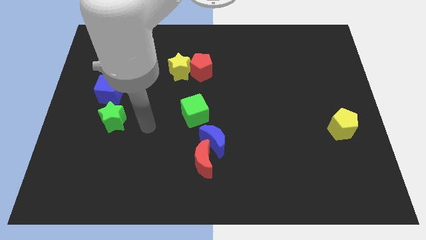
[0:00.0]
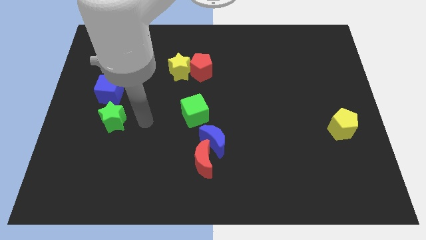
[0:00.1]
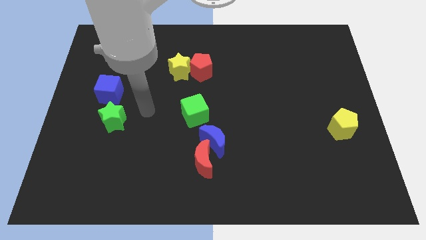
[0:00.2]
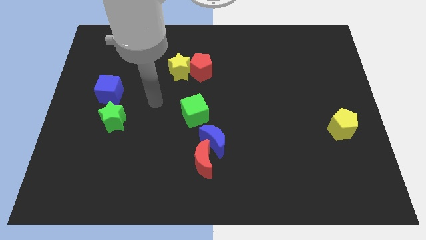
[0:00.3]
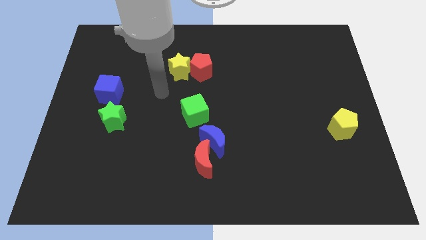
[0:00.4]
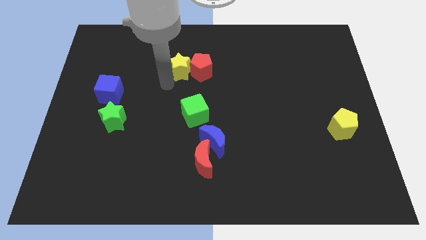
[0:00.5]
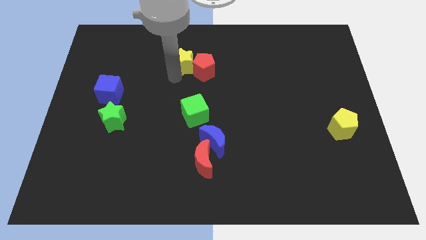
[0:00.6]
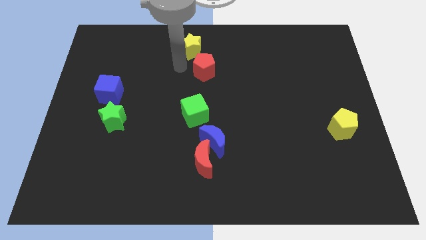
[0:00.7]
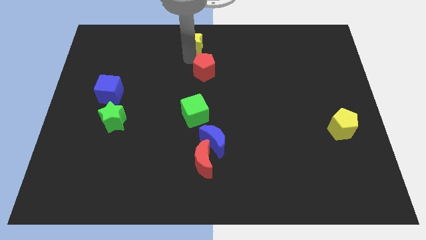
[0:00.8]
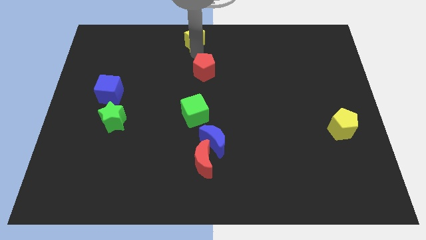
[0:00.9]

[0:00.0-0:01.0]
move the red pentagon away from the yellow star

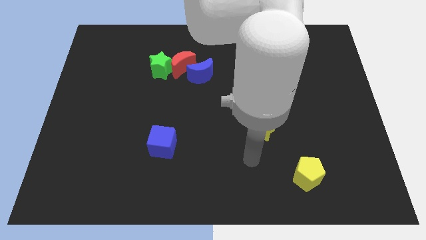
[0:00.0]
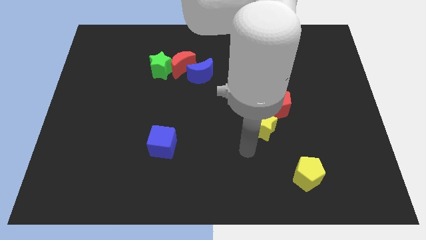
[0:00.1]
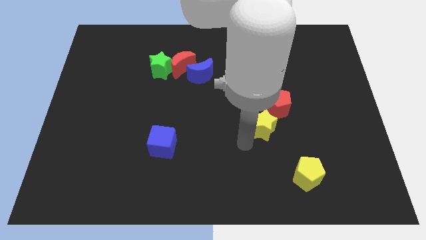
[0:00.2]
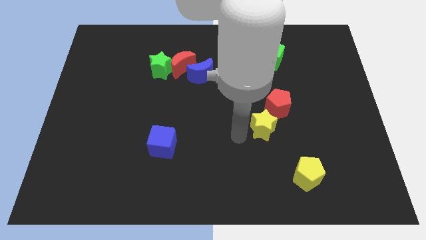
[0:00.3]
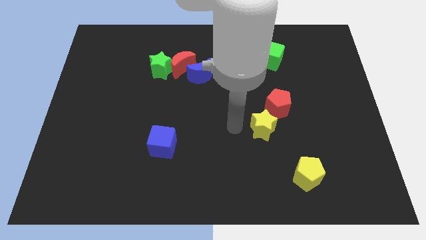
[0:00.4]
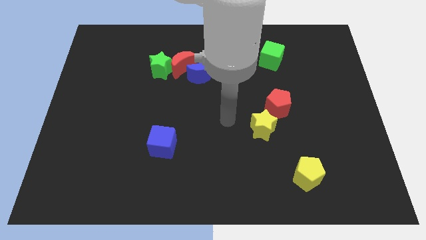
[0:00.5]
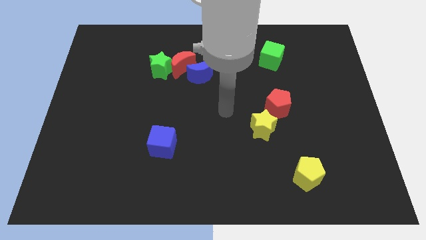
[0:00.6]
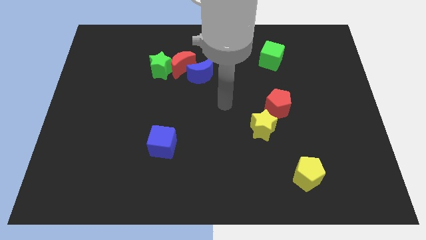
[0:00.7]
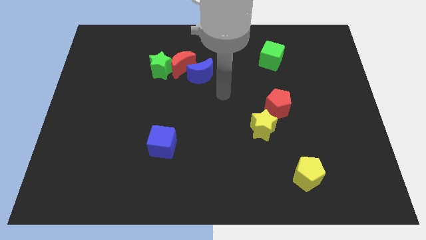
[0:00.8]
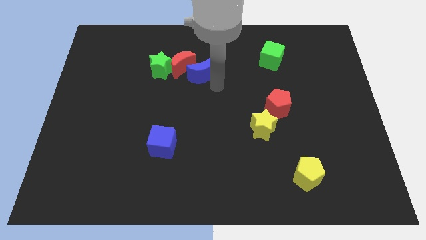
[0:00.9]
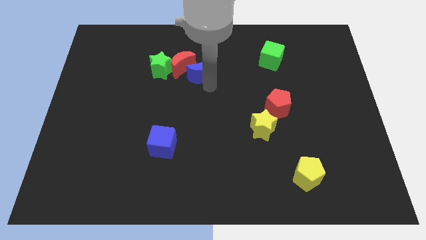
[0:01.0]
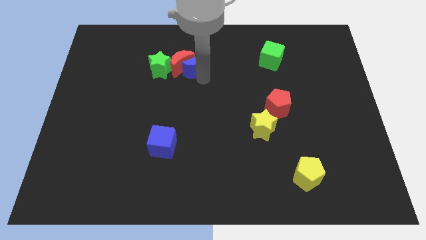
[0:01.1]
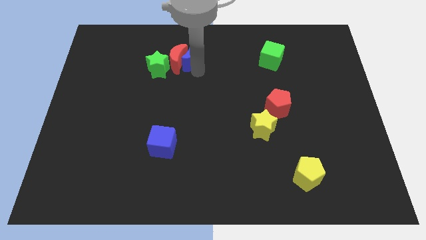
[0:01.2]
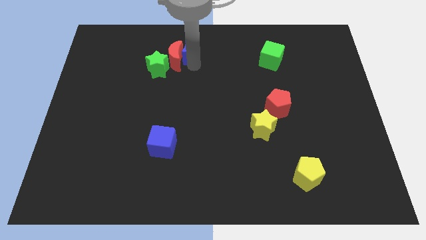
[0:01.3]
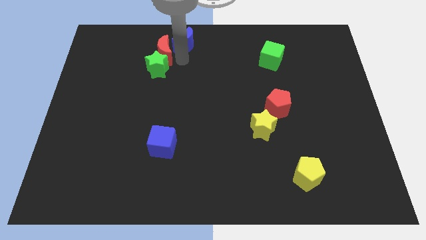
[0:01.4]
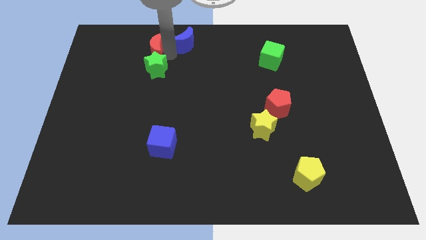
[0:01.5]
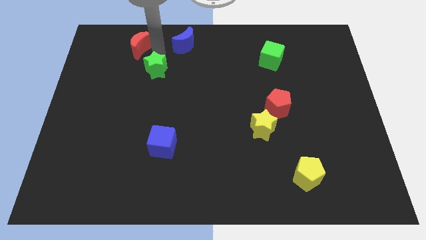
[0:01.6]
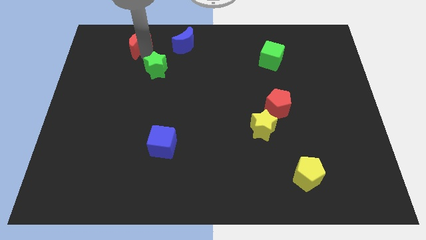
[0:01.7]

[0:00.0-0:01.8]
pull the green star apart from the red moon

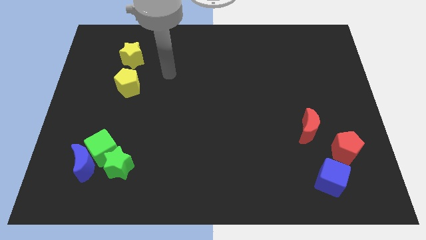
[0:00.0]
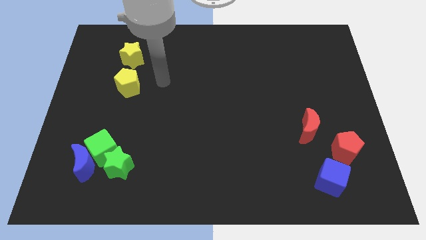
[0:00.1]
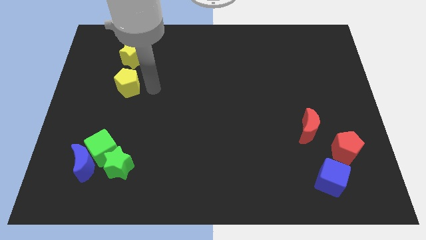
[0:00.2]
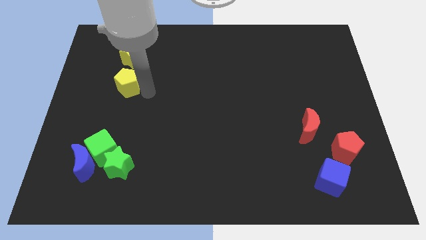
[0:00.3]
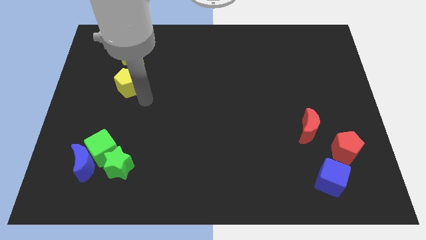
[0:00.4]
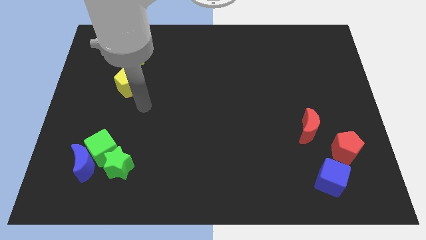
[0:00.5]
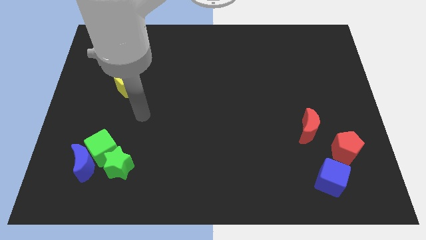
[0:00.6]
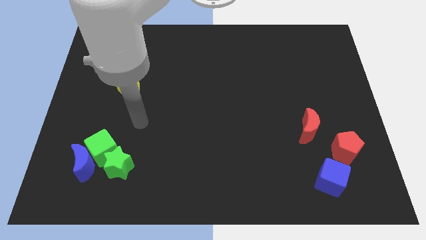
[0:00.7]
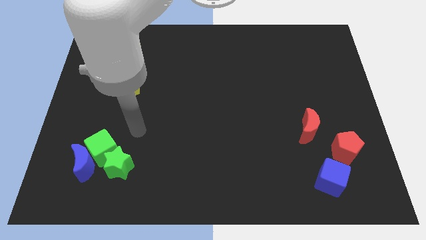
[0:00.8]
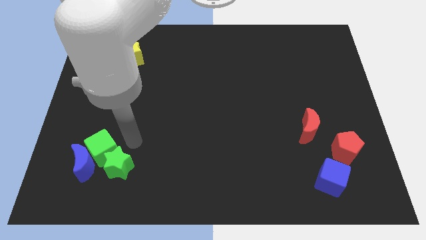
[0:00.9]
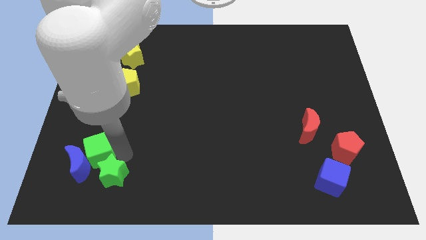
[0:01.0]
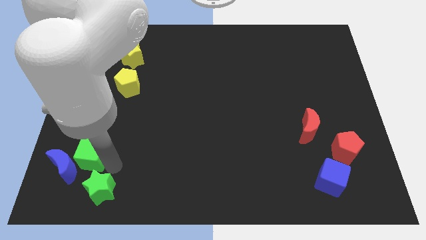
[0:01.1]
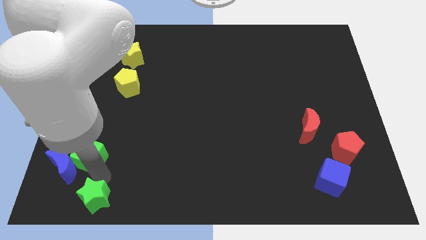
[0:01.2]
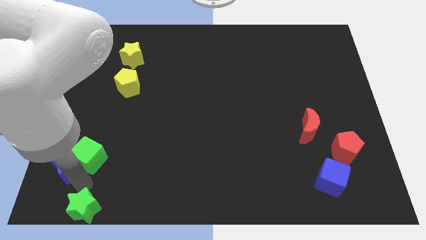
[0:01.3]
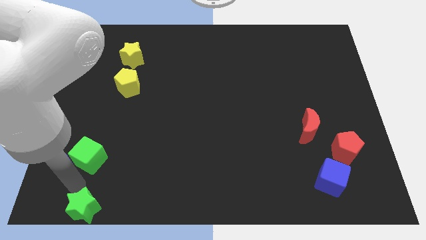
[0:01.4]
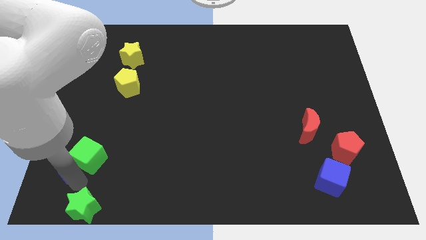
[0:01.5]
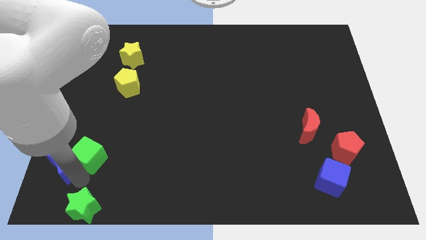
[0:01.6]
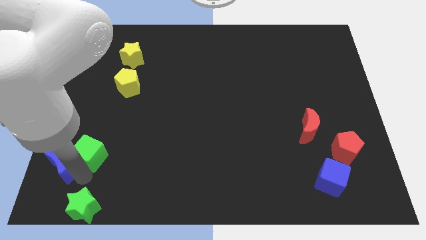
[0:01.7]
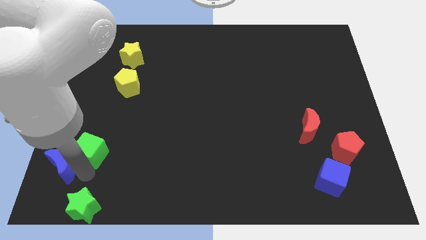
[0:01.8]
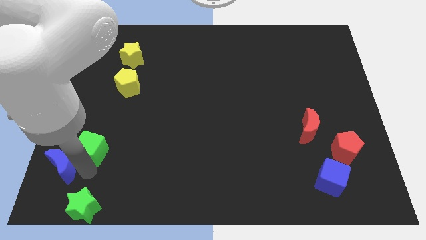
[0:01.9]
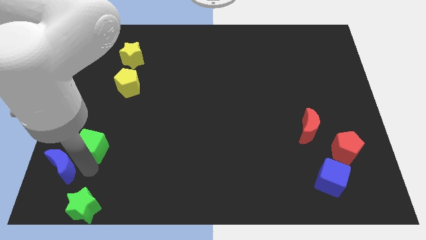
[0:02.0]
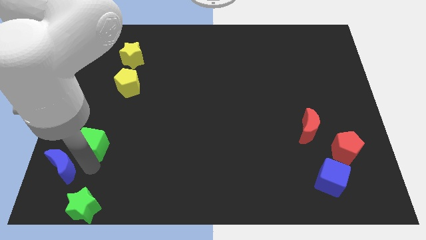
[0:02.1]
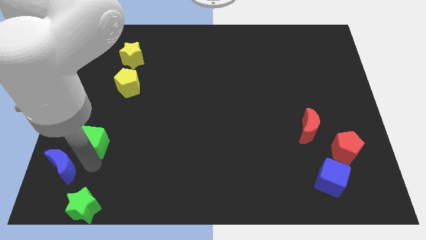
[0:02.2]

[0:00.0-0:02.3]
separate the green cube from the blue moon and green star

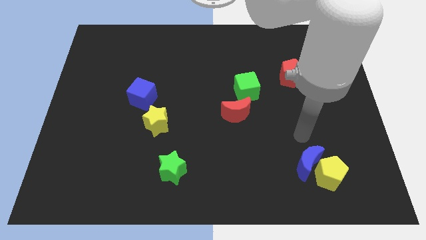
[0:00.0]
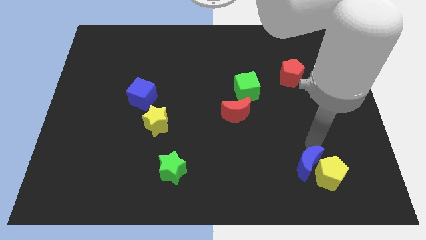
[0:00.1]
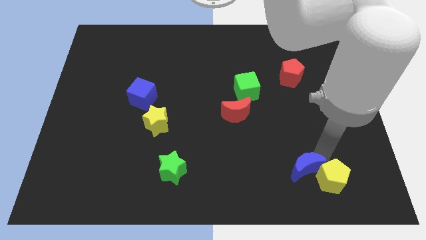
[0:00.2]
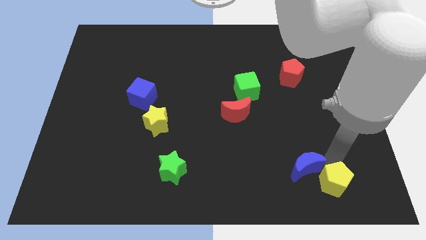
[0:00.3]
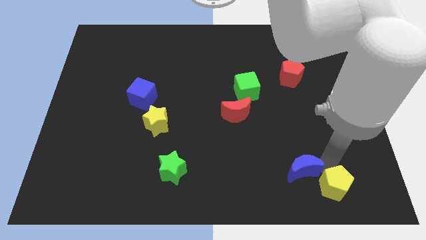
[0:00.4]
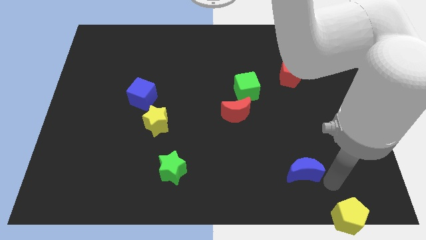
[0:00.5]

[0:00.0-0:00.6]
move the blue moon away from the yellow pentagon

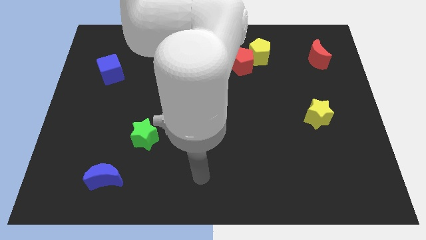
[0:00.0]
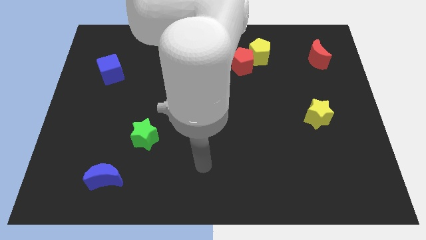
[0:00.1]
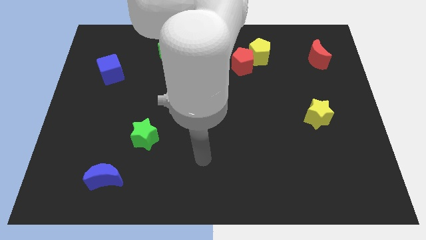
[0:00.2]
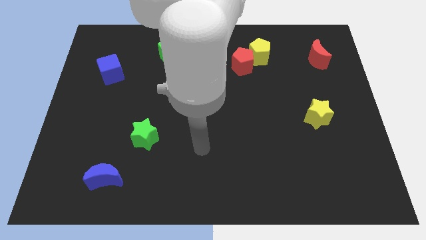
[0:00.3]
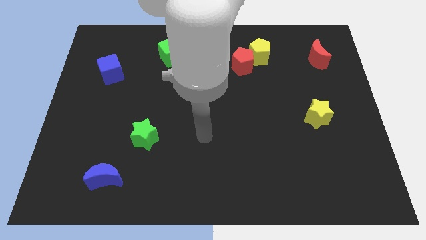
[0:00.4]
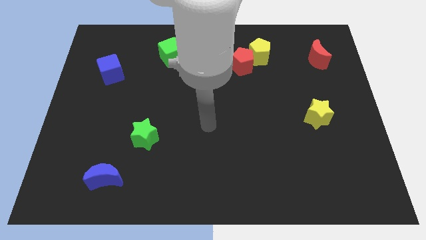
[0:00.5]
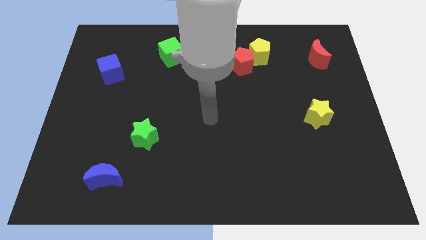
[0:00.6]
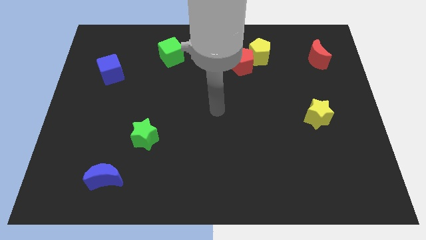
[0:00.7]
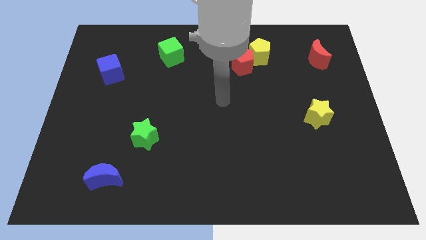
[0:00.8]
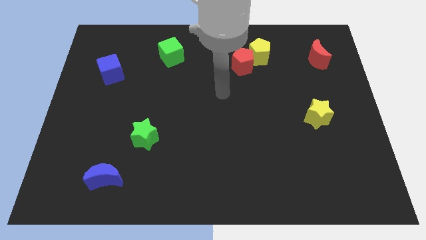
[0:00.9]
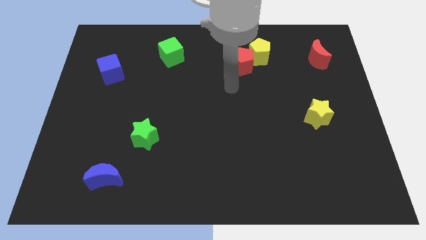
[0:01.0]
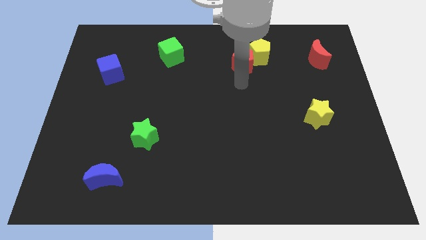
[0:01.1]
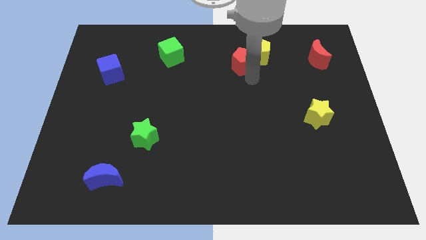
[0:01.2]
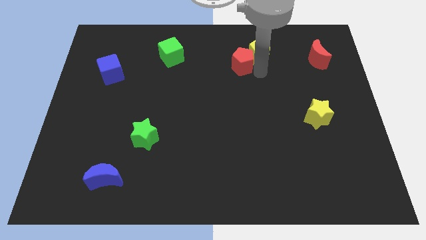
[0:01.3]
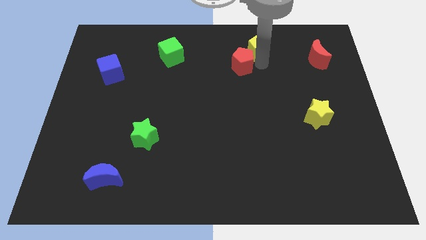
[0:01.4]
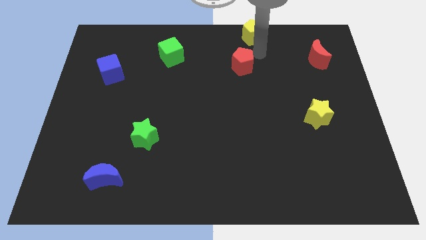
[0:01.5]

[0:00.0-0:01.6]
separate the red pentagon from the yellow pentagon

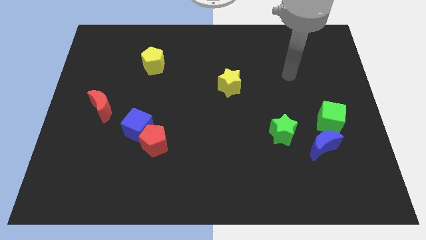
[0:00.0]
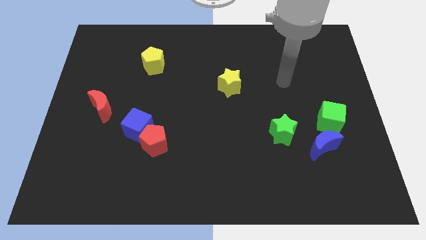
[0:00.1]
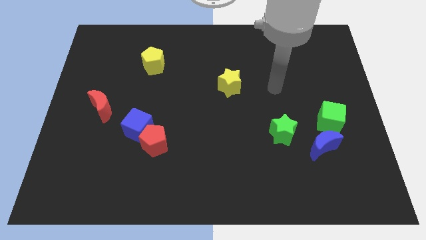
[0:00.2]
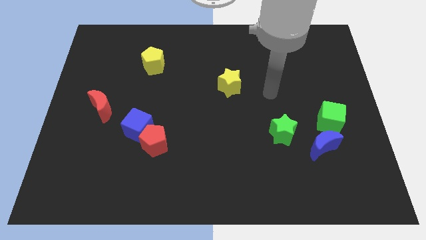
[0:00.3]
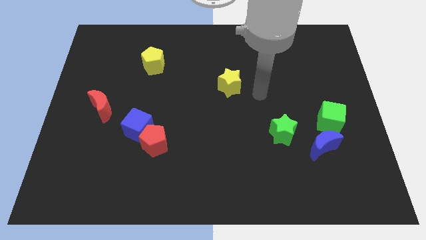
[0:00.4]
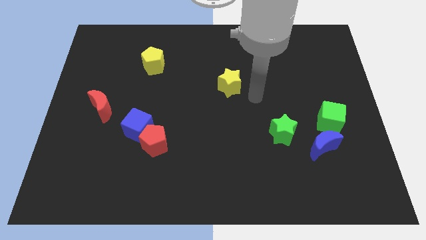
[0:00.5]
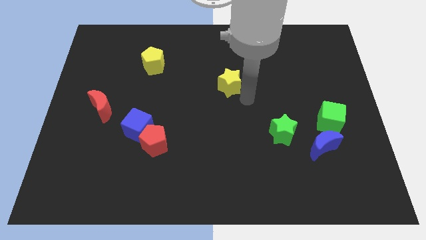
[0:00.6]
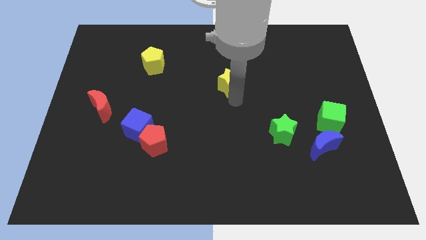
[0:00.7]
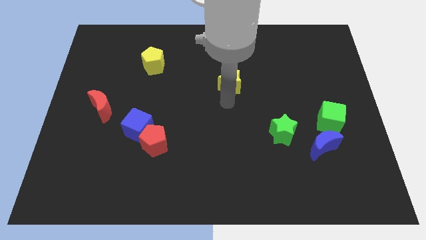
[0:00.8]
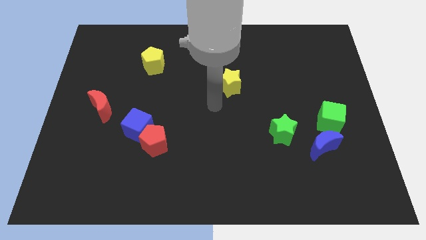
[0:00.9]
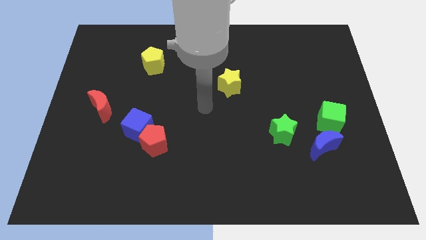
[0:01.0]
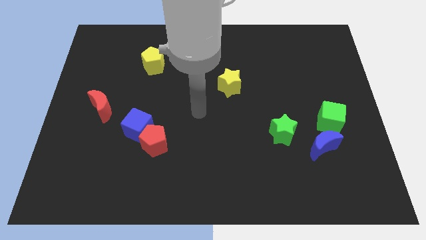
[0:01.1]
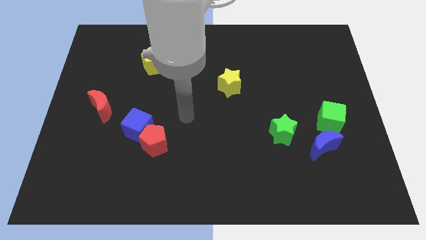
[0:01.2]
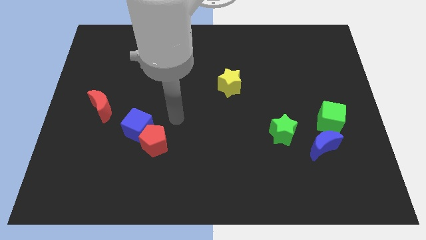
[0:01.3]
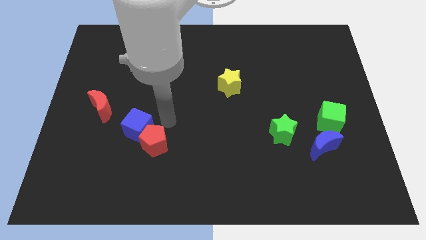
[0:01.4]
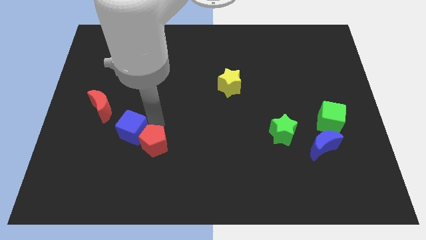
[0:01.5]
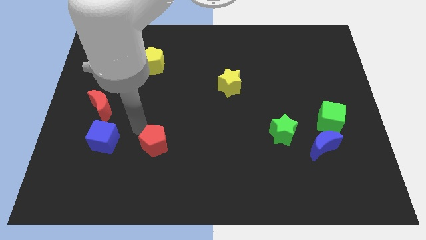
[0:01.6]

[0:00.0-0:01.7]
pull the red pentagon apart from the blue cube

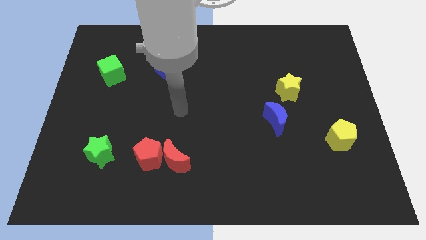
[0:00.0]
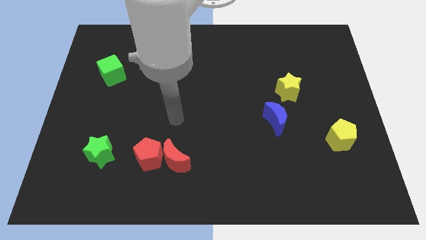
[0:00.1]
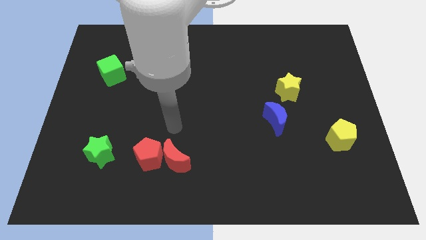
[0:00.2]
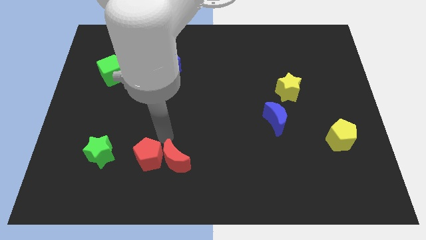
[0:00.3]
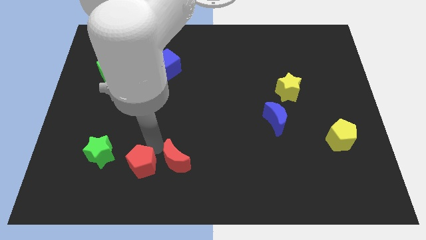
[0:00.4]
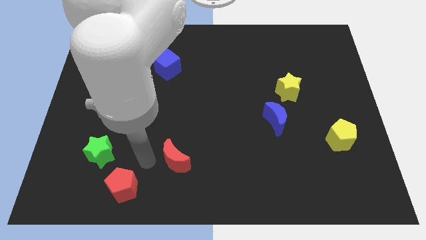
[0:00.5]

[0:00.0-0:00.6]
pull the red moon apart from the red pentagon
